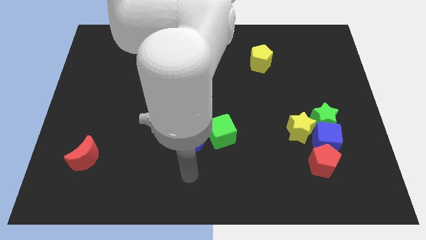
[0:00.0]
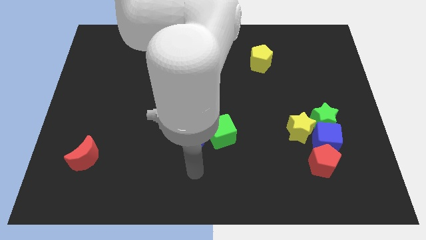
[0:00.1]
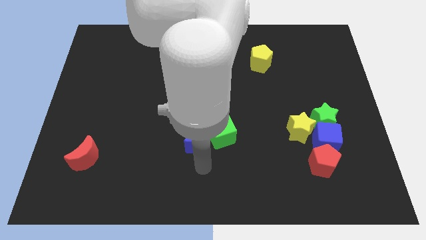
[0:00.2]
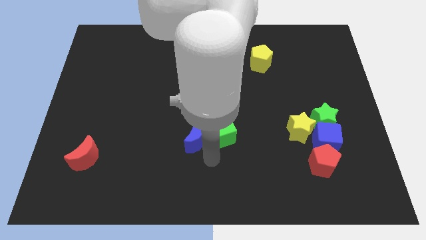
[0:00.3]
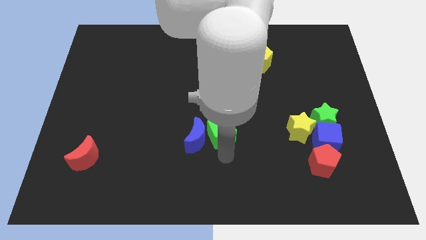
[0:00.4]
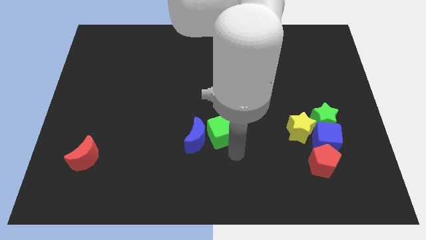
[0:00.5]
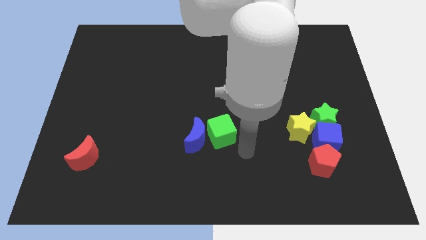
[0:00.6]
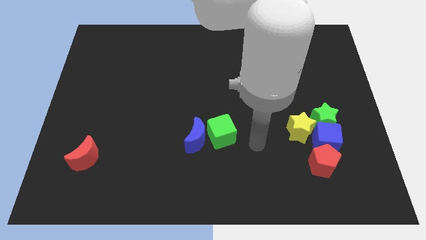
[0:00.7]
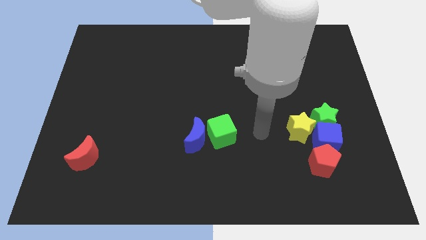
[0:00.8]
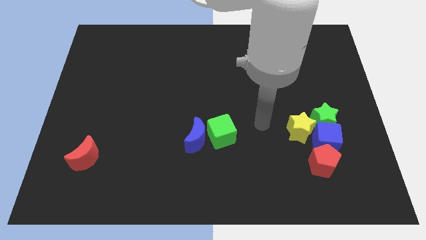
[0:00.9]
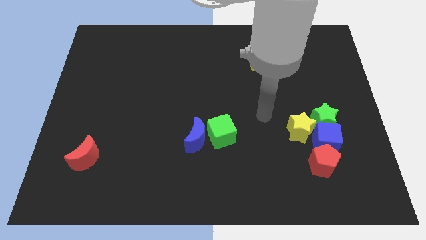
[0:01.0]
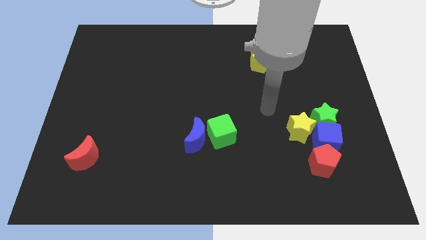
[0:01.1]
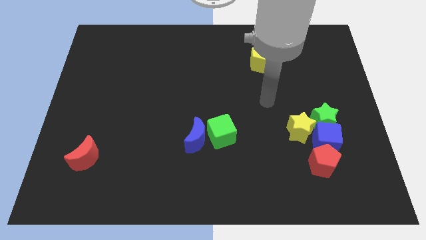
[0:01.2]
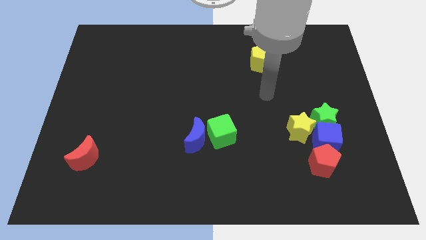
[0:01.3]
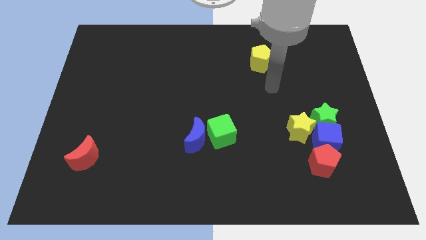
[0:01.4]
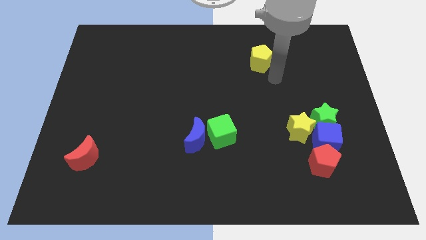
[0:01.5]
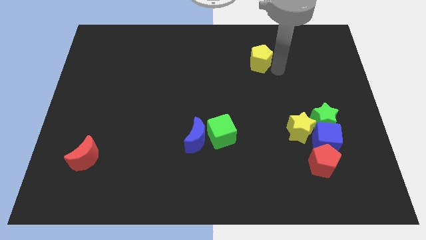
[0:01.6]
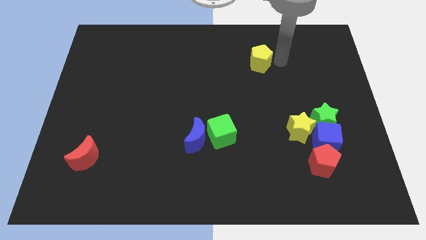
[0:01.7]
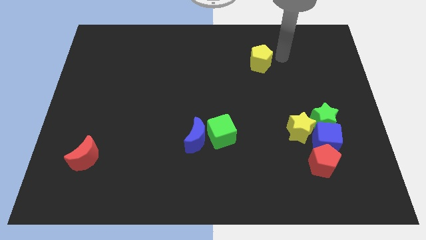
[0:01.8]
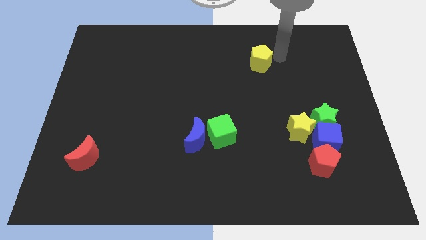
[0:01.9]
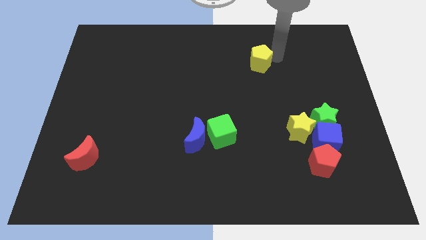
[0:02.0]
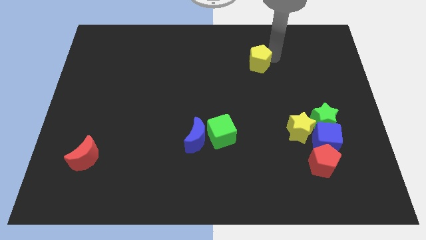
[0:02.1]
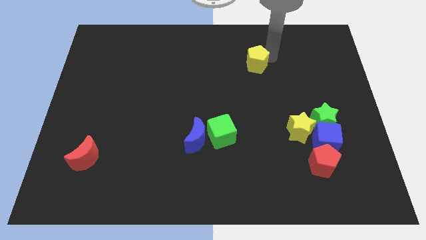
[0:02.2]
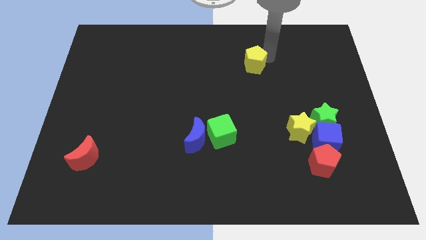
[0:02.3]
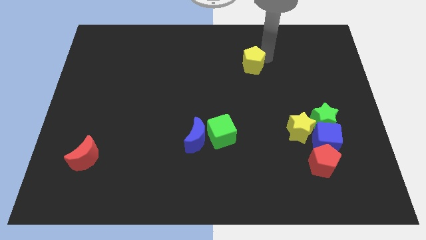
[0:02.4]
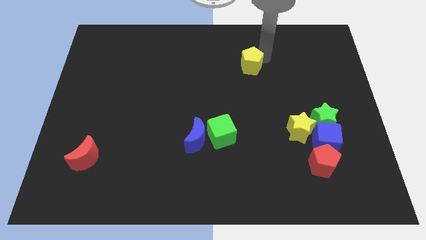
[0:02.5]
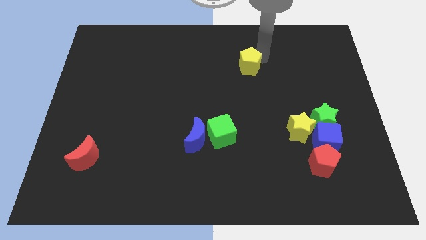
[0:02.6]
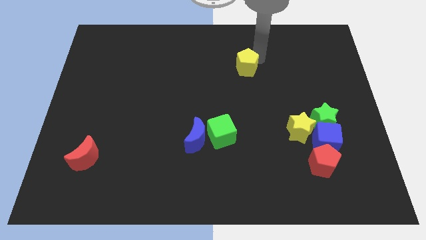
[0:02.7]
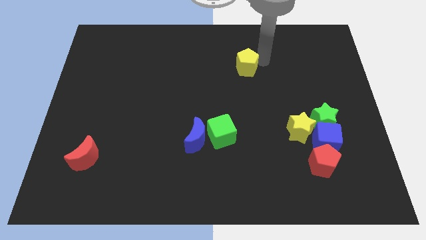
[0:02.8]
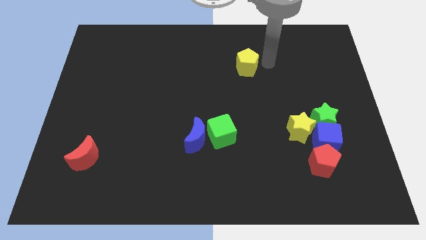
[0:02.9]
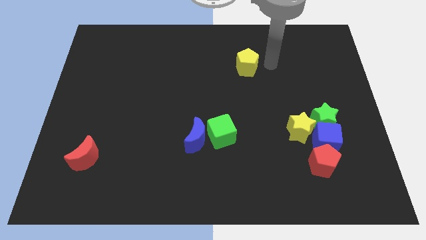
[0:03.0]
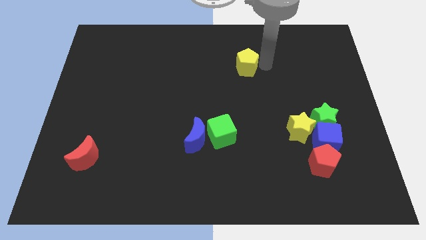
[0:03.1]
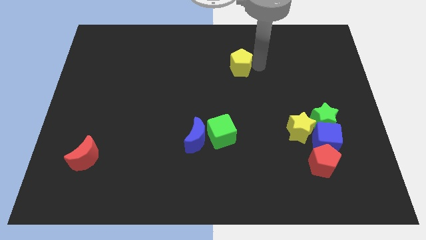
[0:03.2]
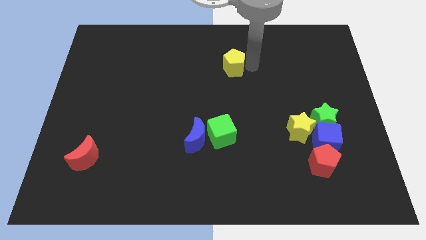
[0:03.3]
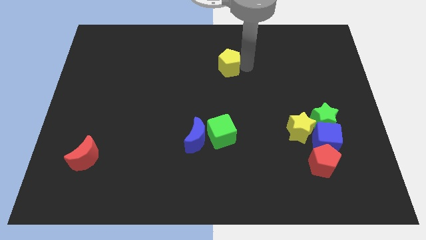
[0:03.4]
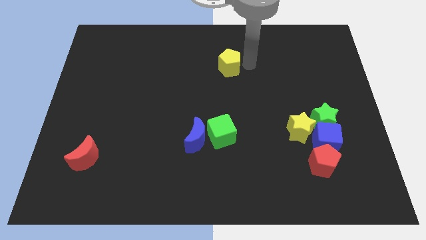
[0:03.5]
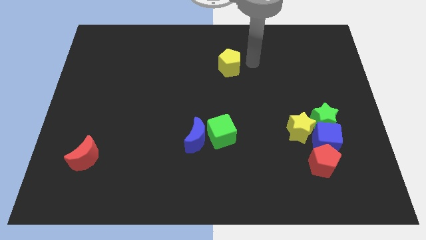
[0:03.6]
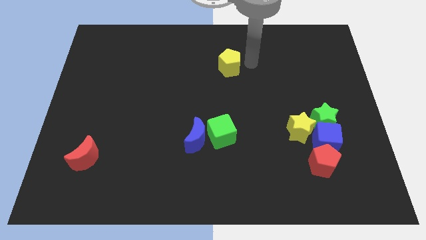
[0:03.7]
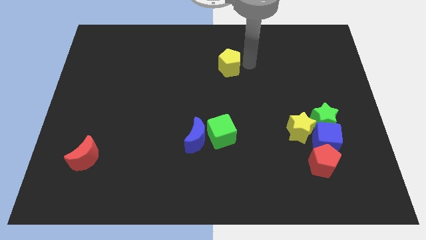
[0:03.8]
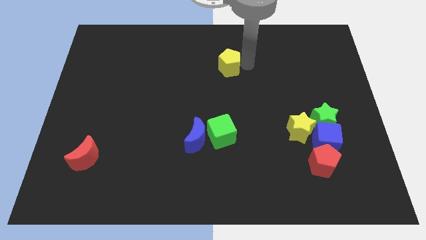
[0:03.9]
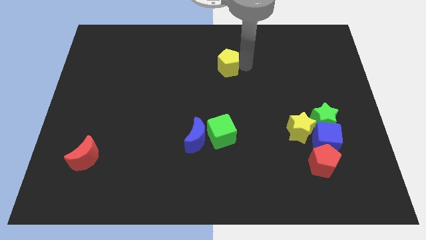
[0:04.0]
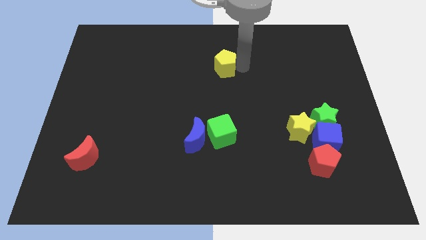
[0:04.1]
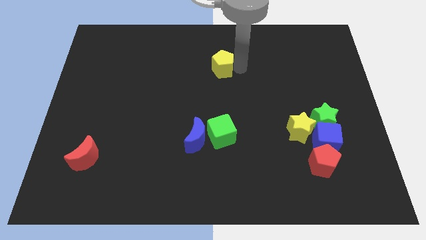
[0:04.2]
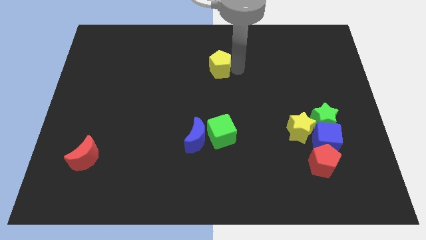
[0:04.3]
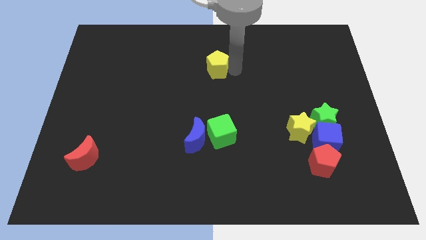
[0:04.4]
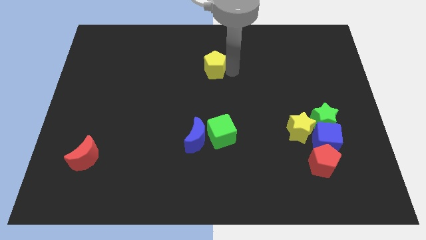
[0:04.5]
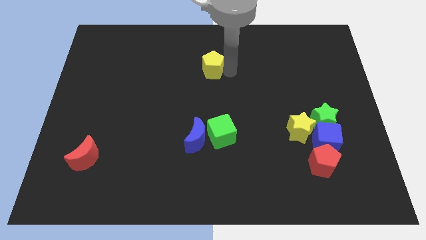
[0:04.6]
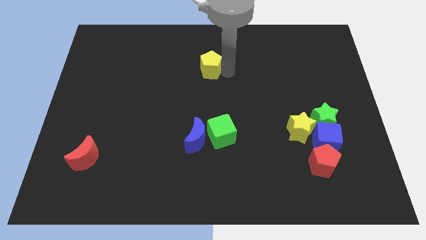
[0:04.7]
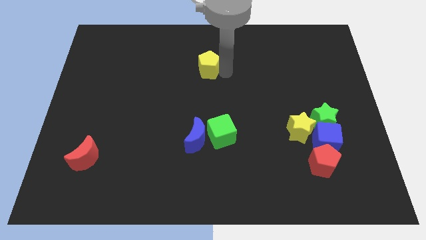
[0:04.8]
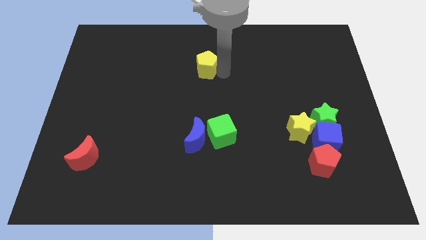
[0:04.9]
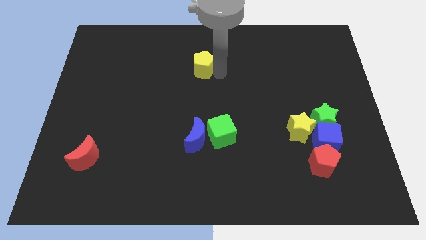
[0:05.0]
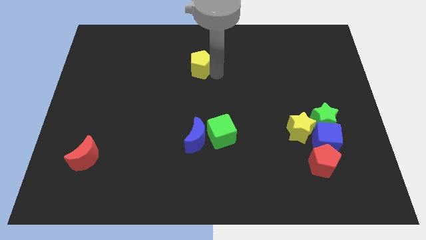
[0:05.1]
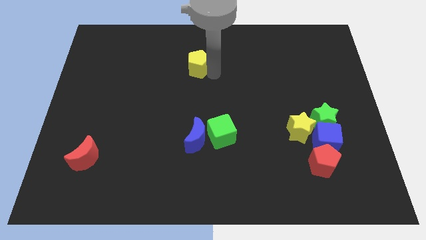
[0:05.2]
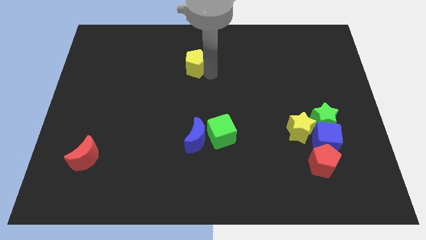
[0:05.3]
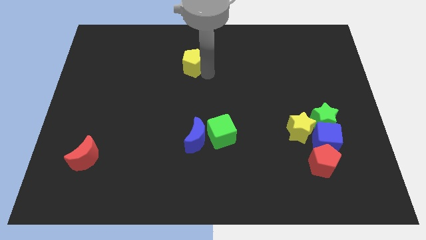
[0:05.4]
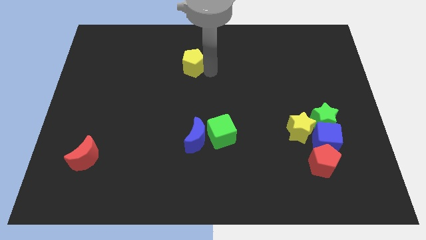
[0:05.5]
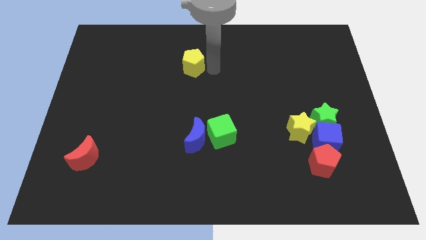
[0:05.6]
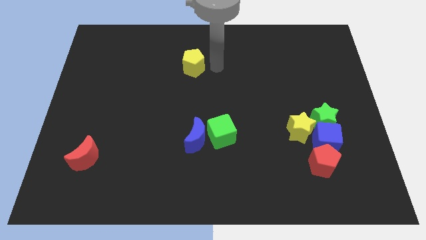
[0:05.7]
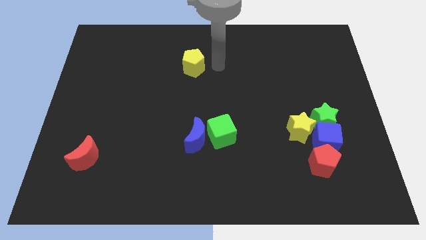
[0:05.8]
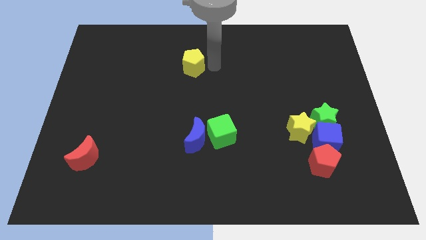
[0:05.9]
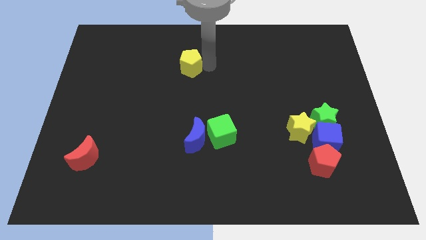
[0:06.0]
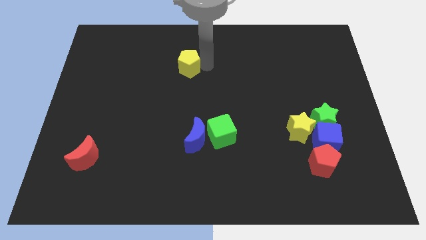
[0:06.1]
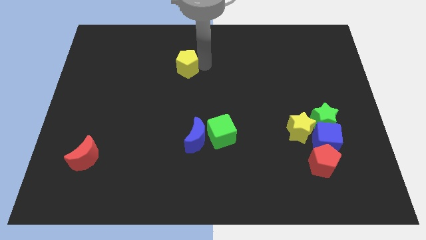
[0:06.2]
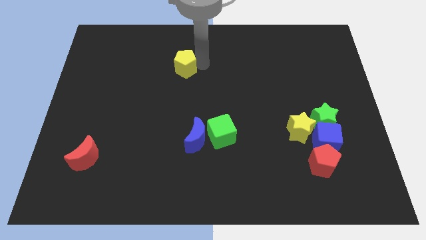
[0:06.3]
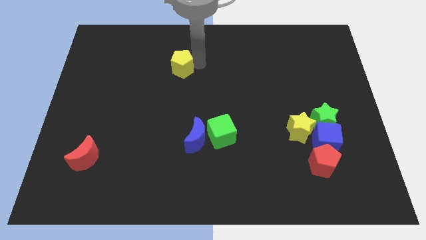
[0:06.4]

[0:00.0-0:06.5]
move the yellow pentagon left

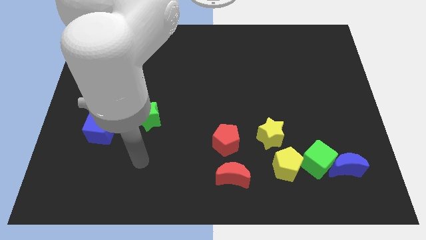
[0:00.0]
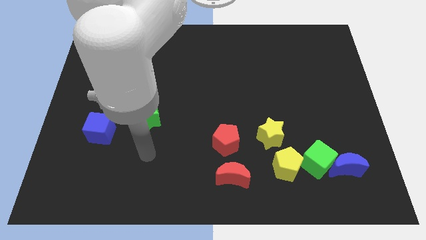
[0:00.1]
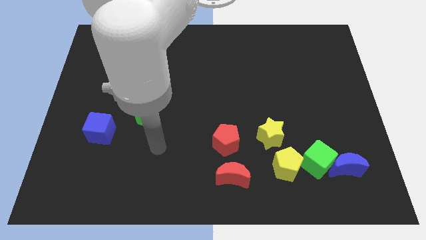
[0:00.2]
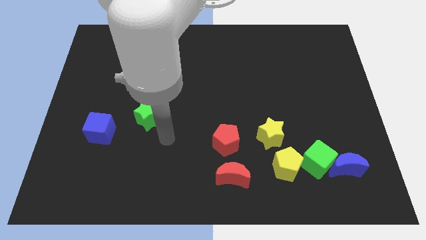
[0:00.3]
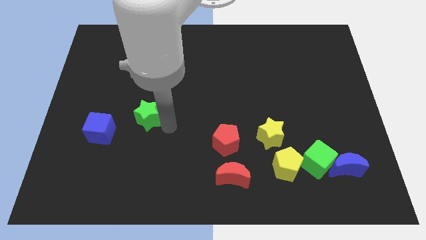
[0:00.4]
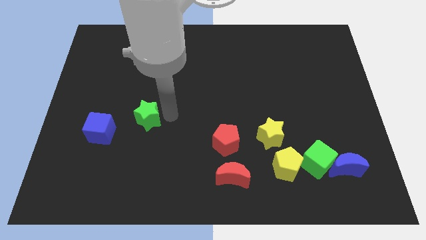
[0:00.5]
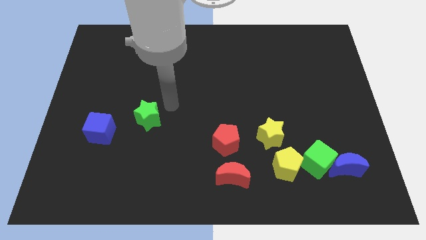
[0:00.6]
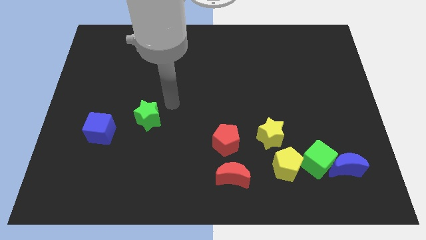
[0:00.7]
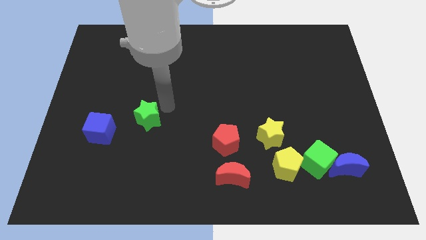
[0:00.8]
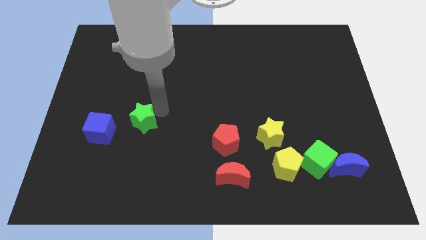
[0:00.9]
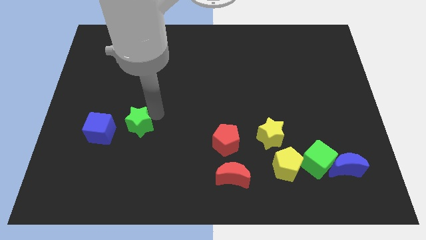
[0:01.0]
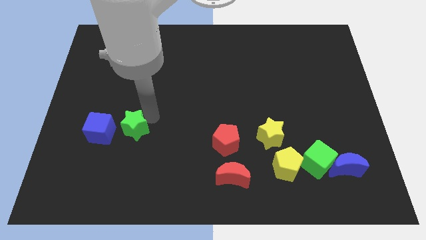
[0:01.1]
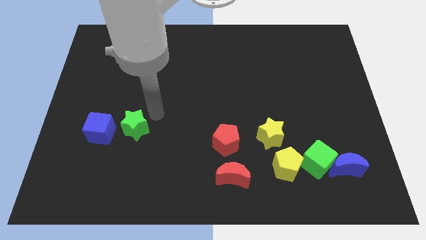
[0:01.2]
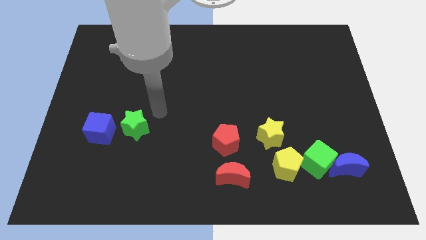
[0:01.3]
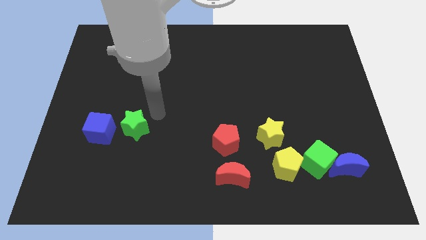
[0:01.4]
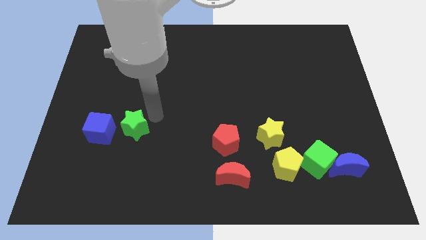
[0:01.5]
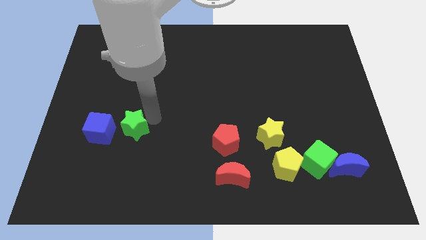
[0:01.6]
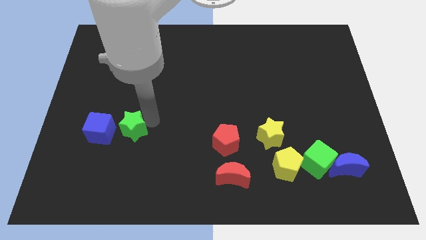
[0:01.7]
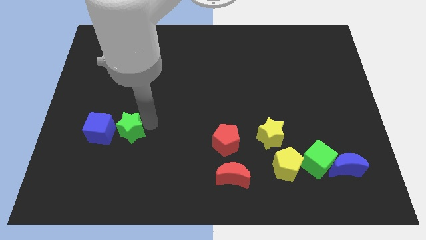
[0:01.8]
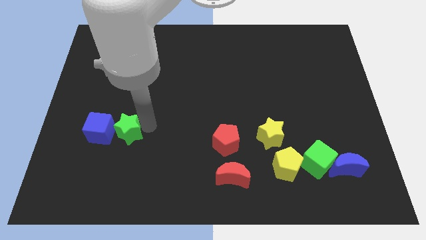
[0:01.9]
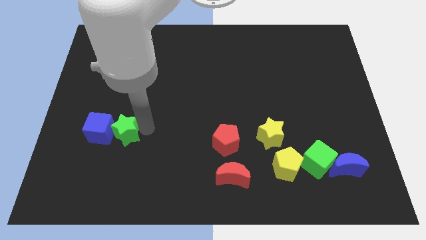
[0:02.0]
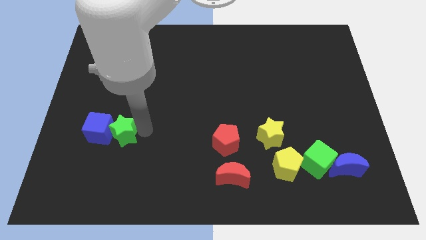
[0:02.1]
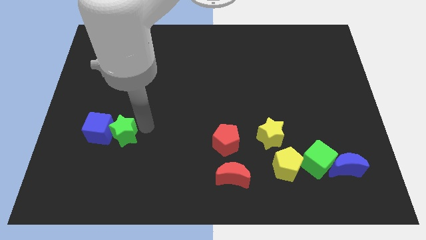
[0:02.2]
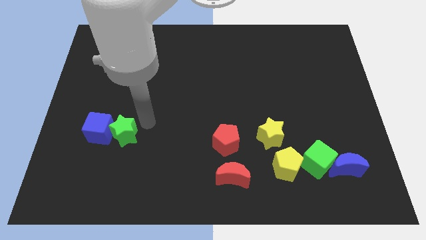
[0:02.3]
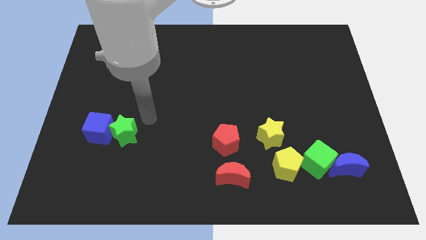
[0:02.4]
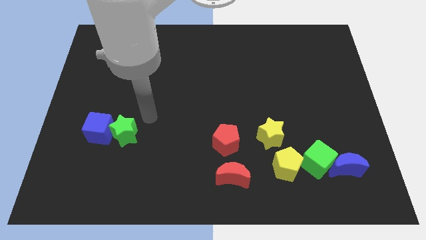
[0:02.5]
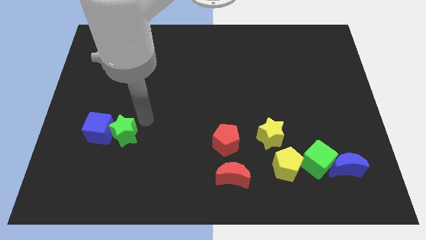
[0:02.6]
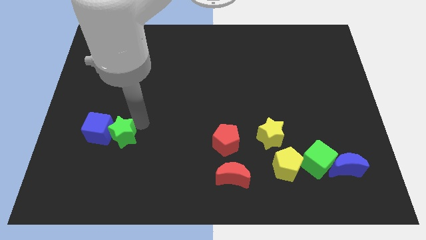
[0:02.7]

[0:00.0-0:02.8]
slide the green star down and to the left somewhat
